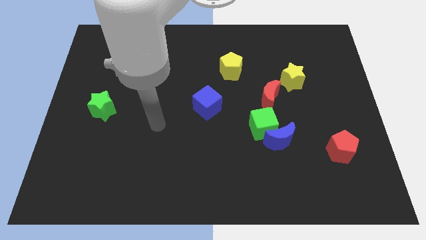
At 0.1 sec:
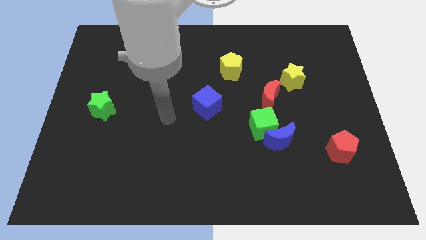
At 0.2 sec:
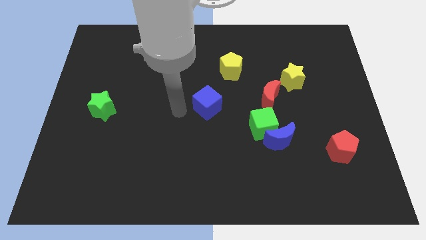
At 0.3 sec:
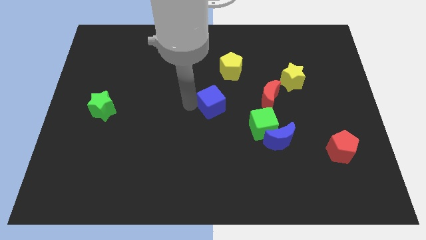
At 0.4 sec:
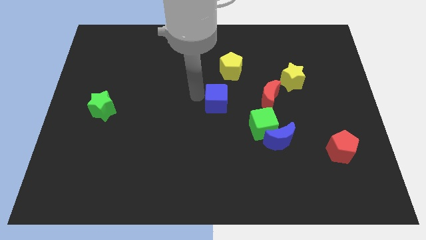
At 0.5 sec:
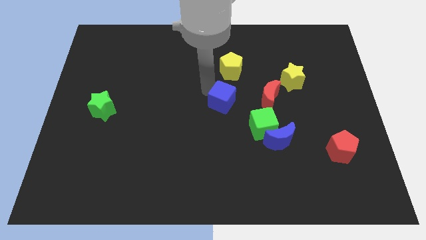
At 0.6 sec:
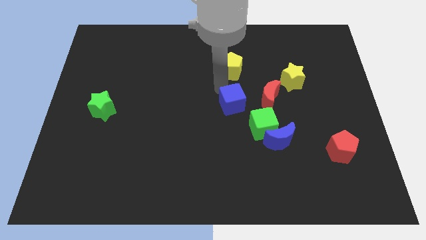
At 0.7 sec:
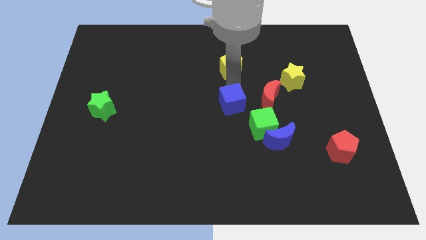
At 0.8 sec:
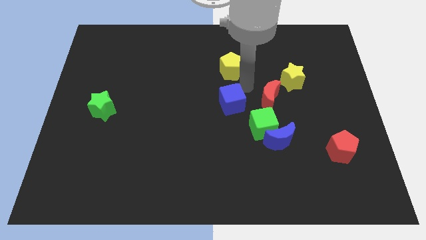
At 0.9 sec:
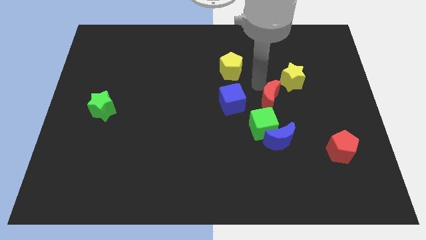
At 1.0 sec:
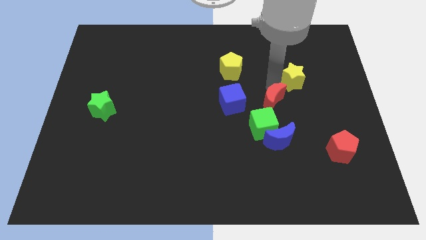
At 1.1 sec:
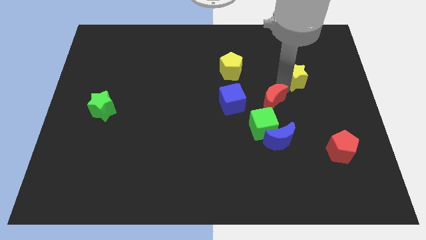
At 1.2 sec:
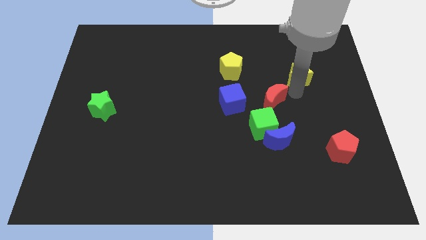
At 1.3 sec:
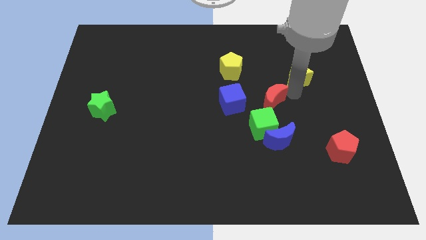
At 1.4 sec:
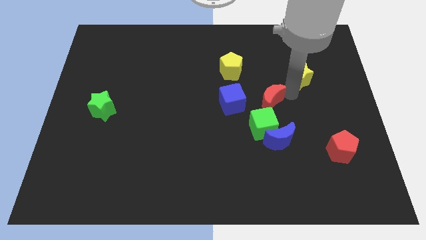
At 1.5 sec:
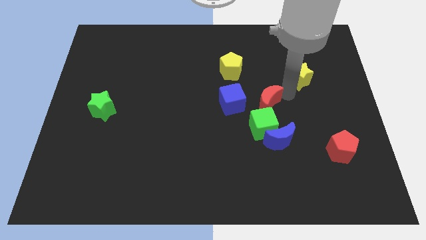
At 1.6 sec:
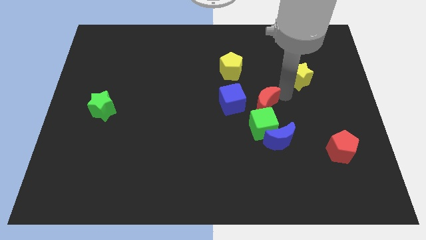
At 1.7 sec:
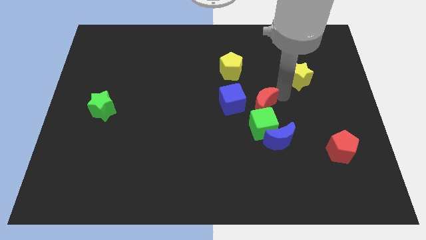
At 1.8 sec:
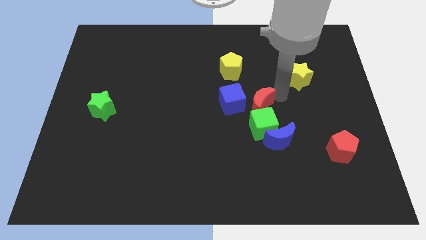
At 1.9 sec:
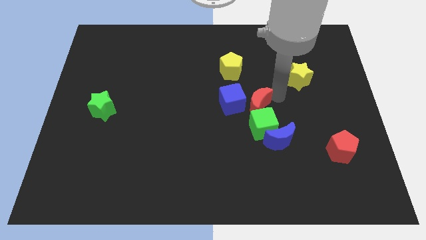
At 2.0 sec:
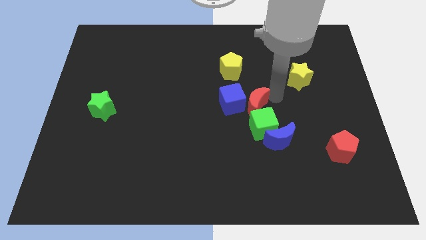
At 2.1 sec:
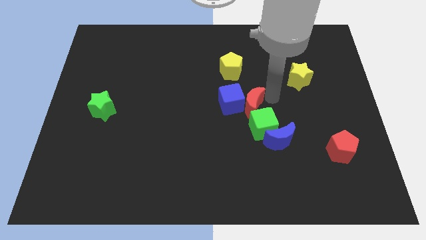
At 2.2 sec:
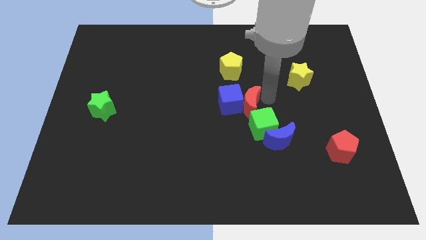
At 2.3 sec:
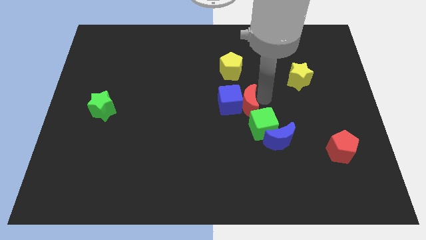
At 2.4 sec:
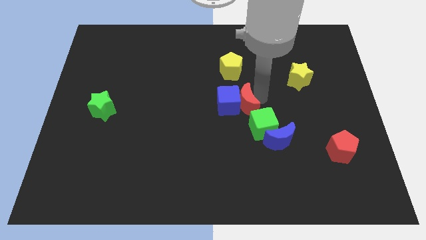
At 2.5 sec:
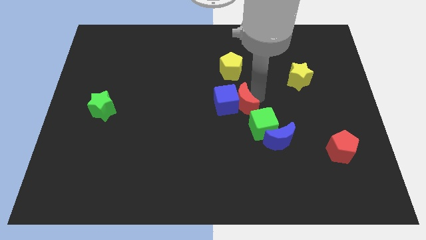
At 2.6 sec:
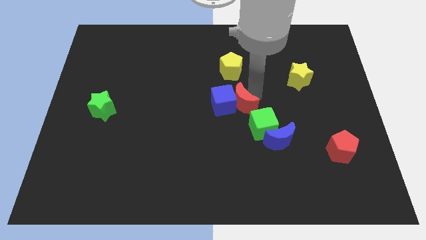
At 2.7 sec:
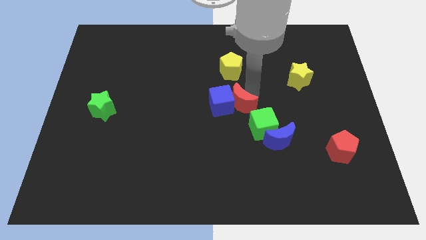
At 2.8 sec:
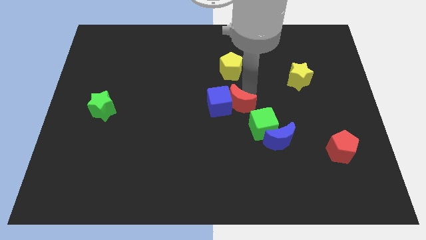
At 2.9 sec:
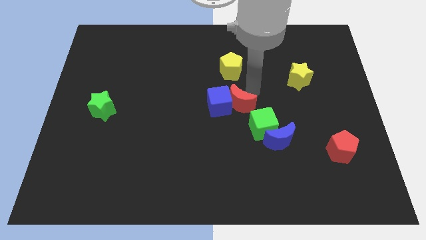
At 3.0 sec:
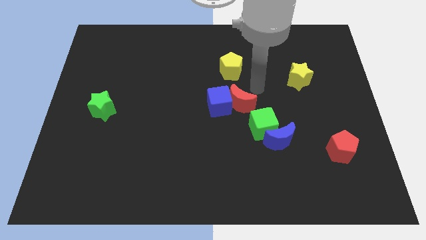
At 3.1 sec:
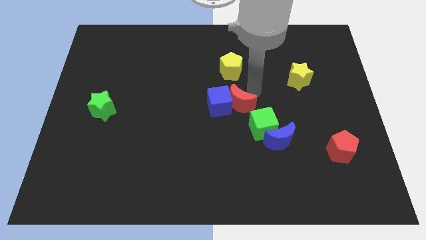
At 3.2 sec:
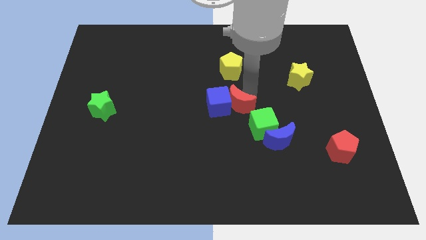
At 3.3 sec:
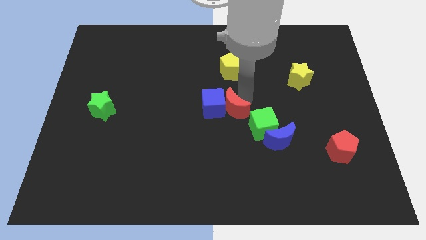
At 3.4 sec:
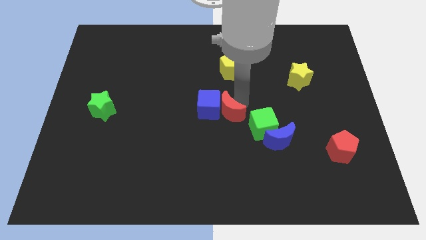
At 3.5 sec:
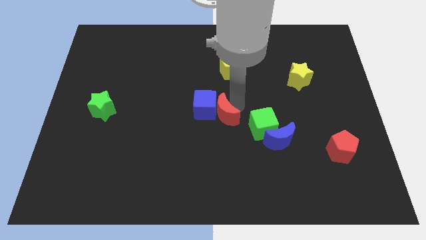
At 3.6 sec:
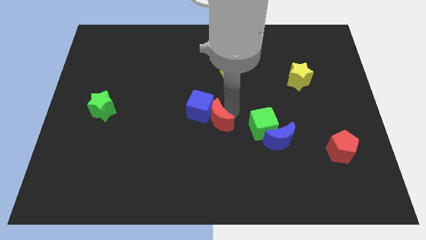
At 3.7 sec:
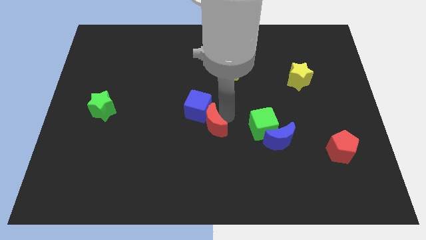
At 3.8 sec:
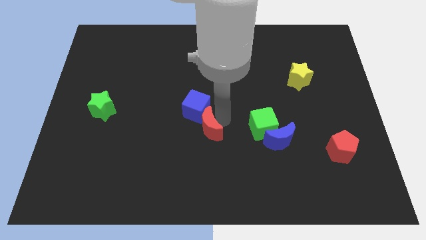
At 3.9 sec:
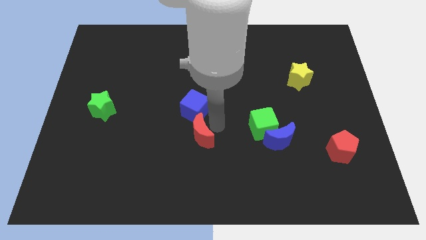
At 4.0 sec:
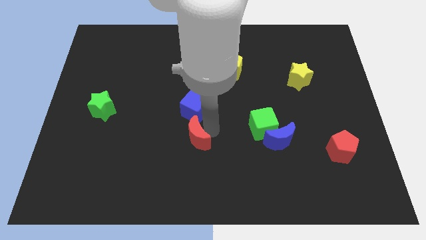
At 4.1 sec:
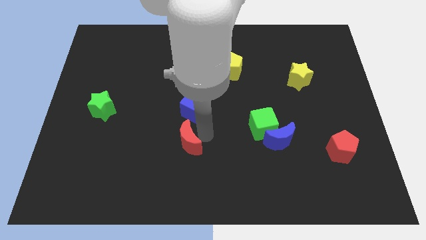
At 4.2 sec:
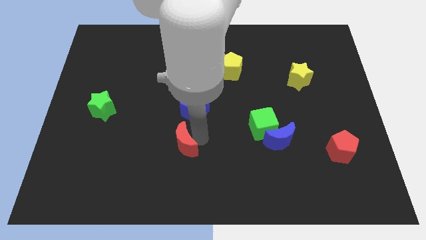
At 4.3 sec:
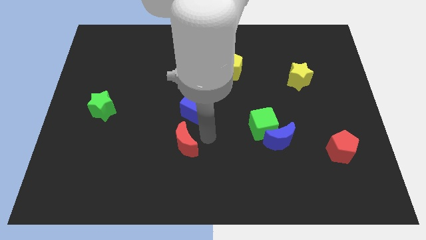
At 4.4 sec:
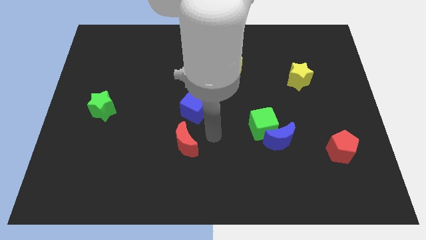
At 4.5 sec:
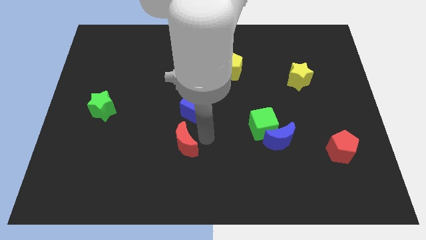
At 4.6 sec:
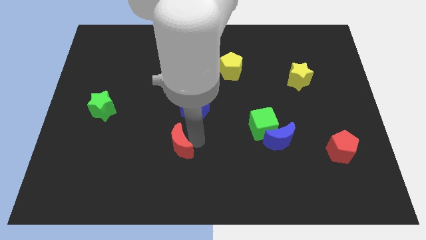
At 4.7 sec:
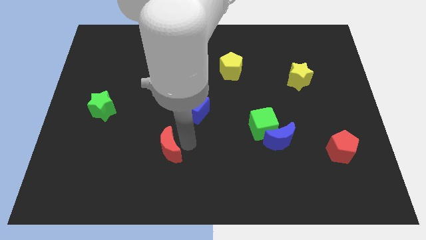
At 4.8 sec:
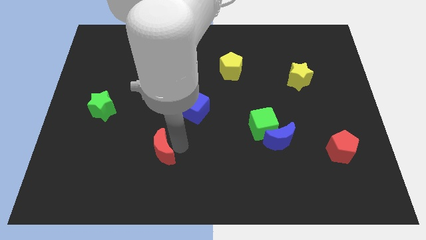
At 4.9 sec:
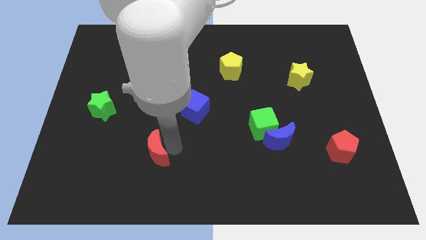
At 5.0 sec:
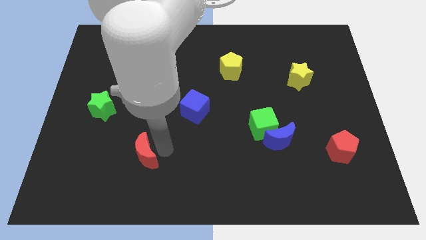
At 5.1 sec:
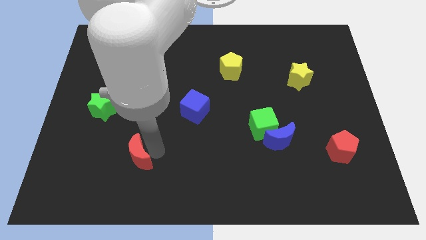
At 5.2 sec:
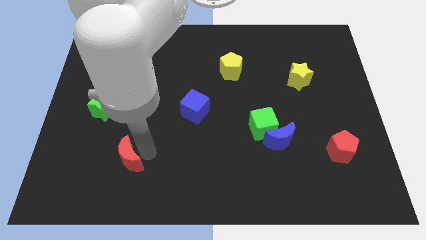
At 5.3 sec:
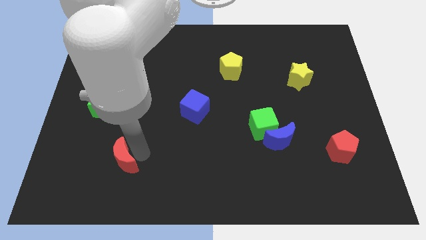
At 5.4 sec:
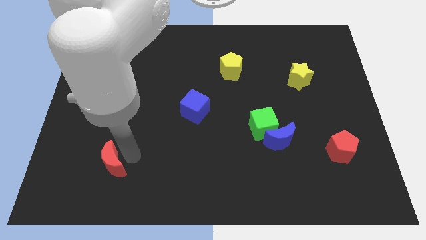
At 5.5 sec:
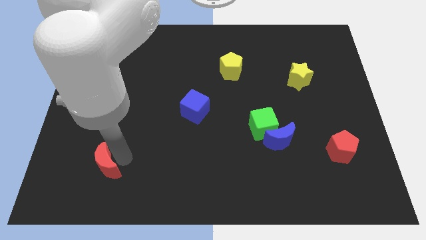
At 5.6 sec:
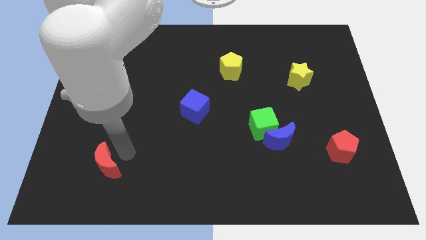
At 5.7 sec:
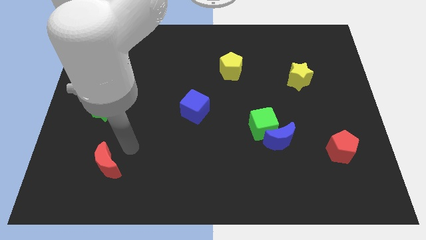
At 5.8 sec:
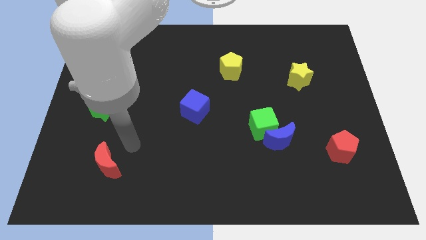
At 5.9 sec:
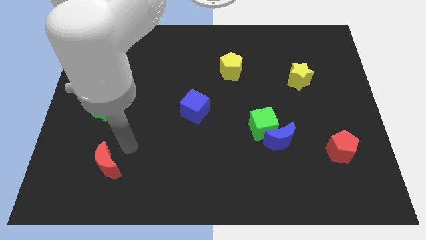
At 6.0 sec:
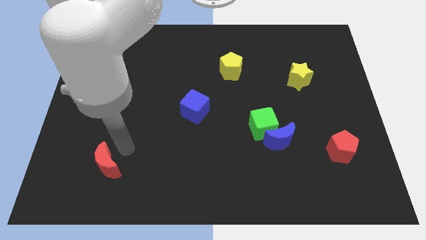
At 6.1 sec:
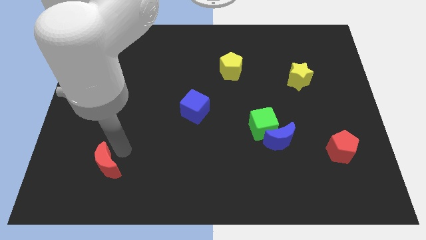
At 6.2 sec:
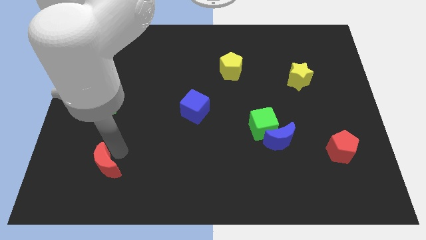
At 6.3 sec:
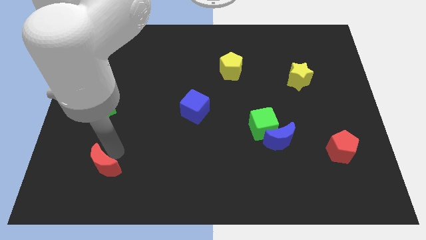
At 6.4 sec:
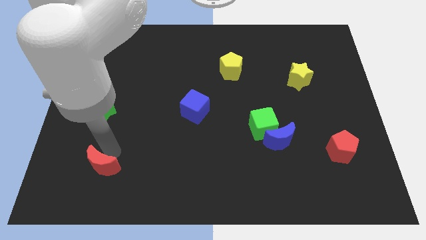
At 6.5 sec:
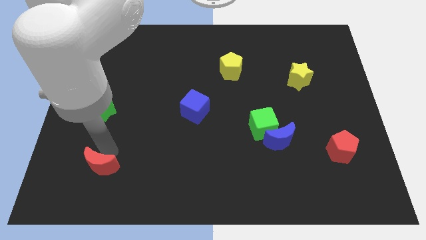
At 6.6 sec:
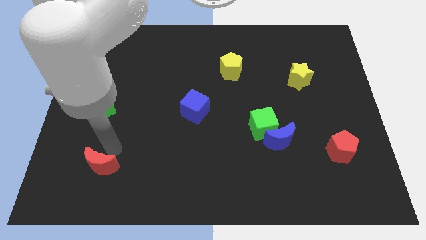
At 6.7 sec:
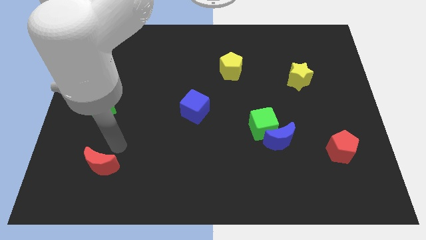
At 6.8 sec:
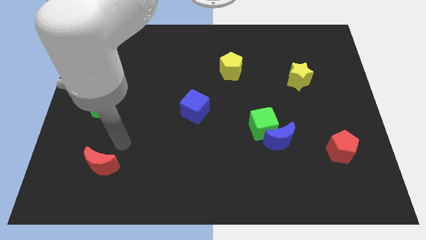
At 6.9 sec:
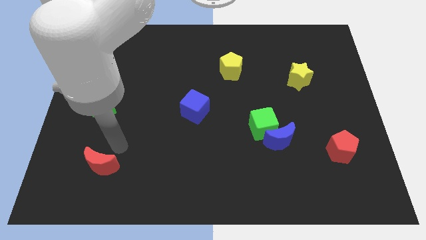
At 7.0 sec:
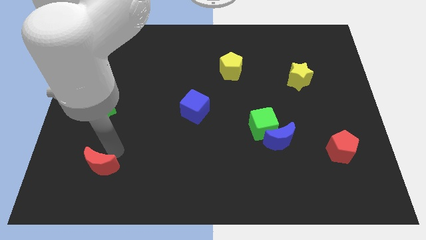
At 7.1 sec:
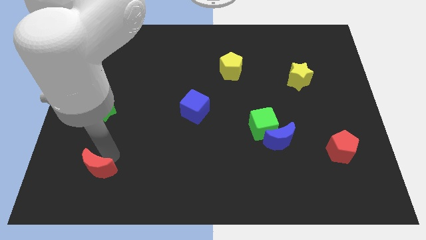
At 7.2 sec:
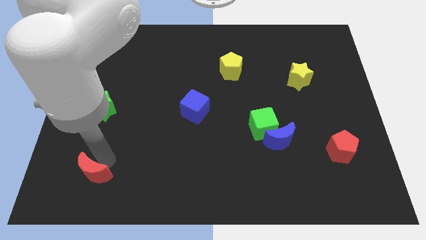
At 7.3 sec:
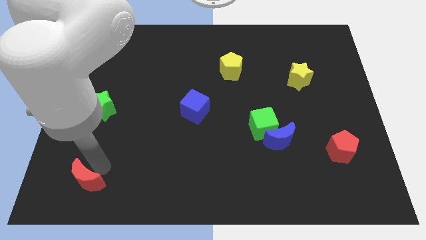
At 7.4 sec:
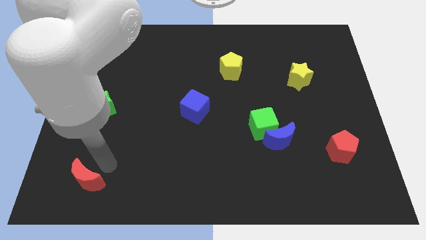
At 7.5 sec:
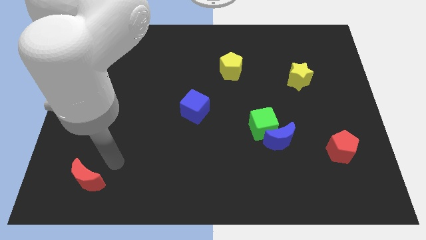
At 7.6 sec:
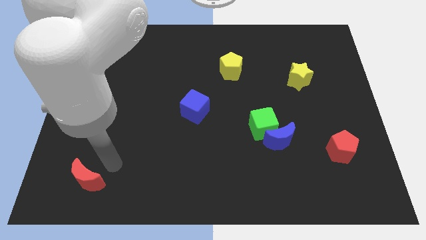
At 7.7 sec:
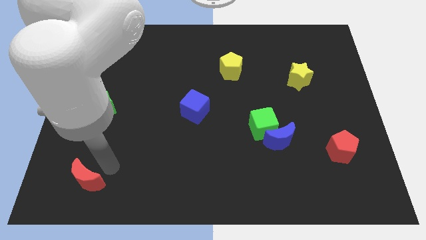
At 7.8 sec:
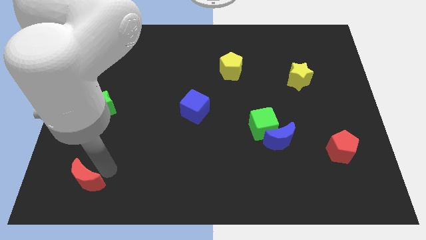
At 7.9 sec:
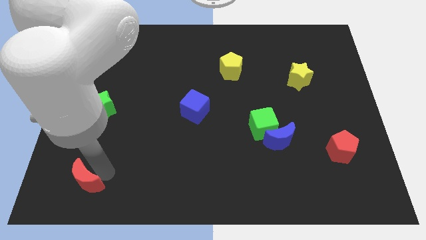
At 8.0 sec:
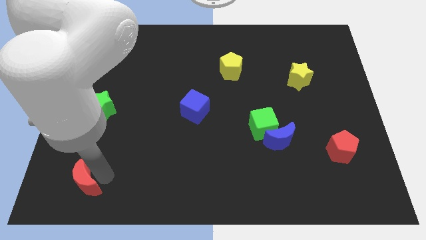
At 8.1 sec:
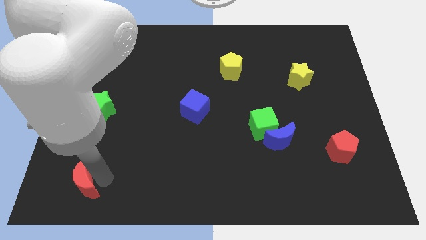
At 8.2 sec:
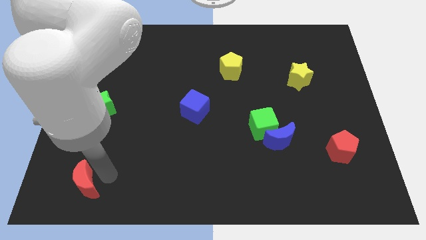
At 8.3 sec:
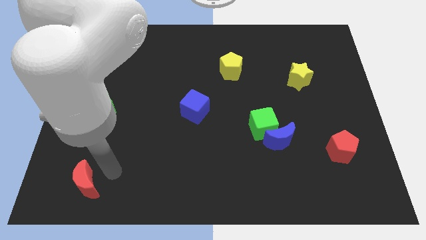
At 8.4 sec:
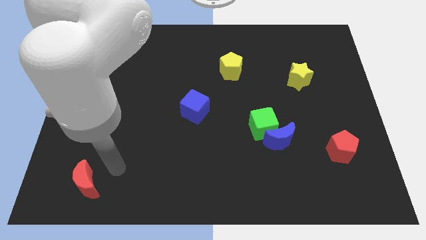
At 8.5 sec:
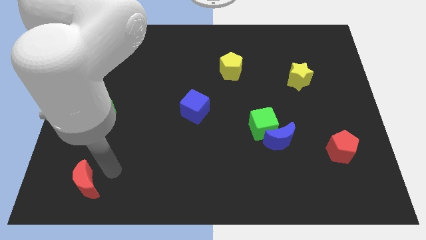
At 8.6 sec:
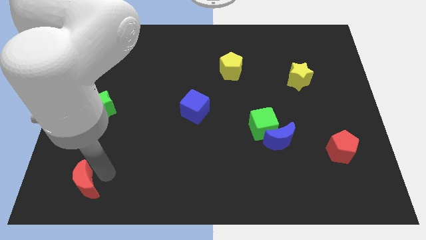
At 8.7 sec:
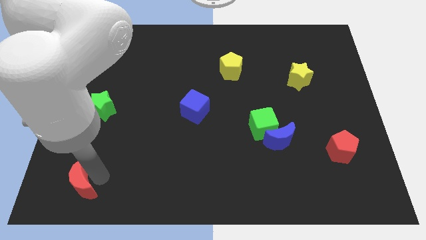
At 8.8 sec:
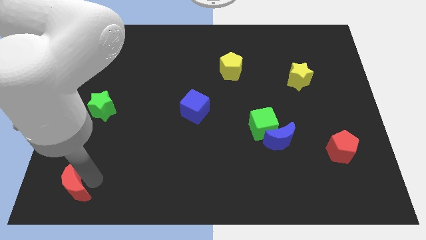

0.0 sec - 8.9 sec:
push the red moon to the bottom left corner
